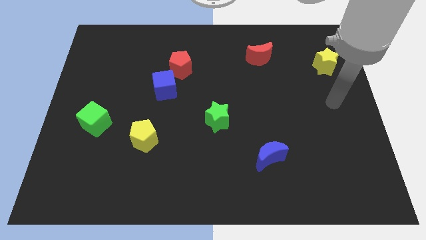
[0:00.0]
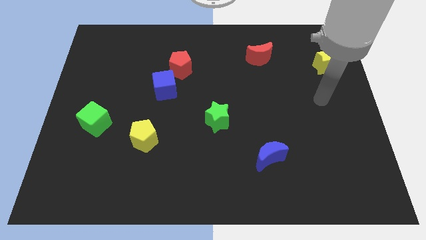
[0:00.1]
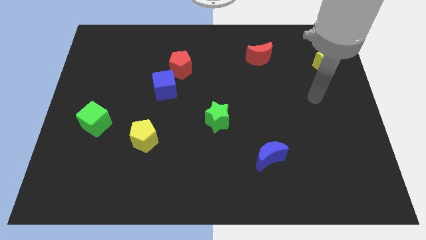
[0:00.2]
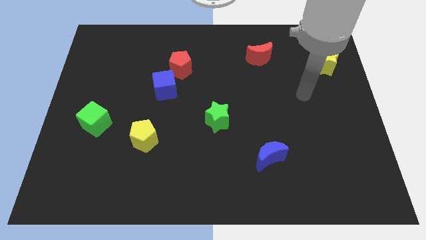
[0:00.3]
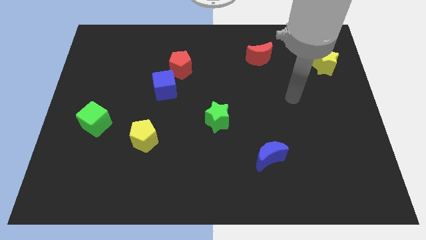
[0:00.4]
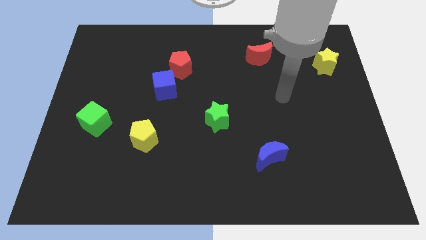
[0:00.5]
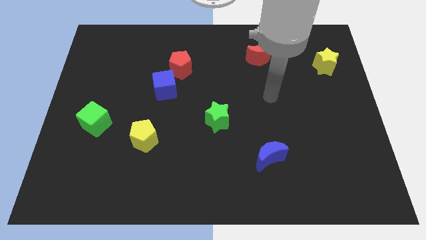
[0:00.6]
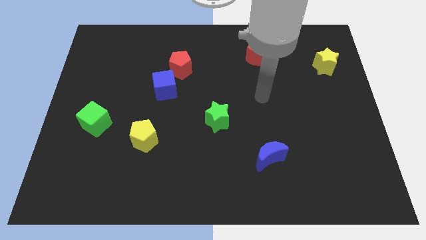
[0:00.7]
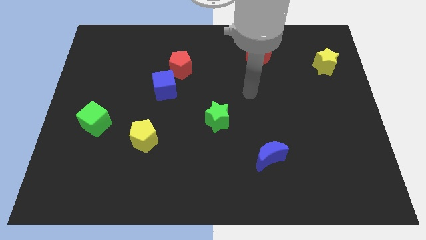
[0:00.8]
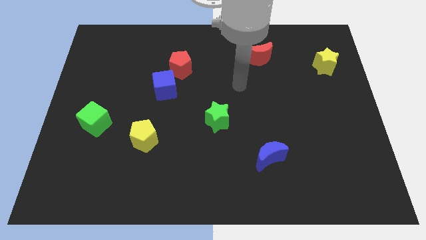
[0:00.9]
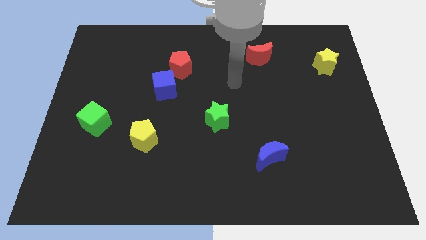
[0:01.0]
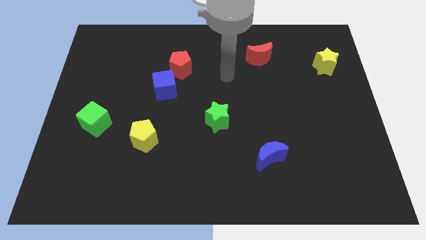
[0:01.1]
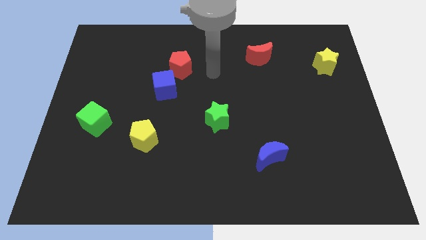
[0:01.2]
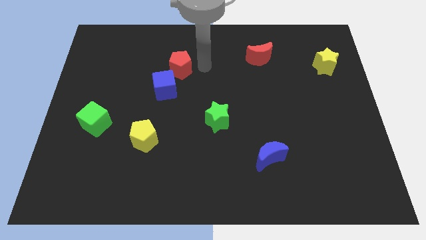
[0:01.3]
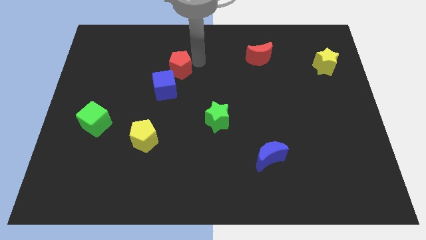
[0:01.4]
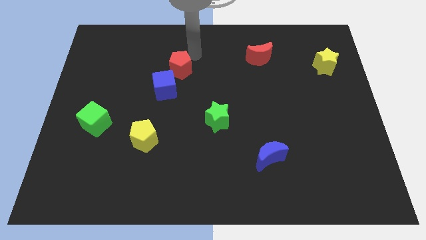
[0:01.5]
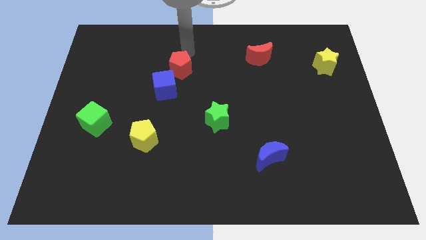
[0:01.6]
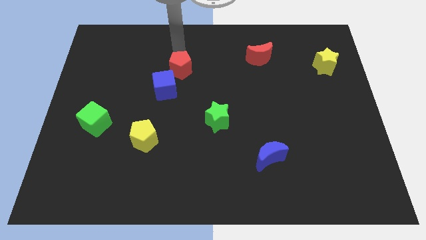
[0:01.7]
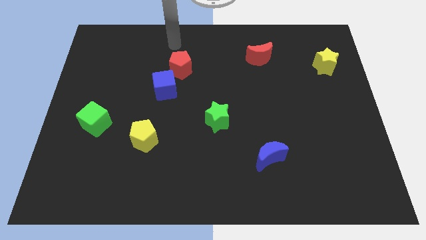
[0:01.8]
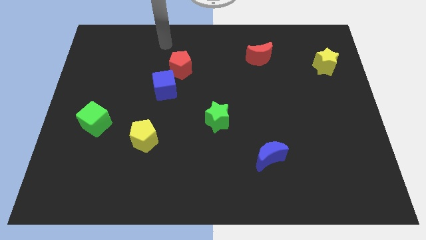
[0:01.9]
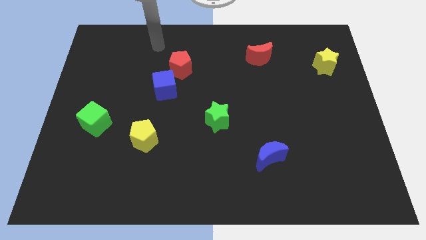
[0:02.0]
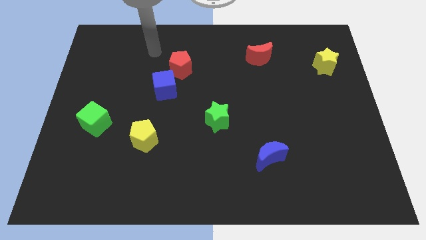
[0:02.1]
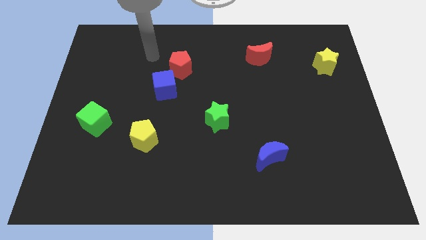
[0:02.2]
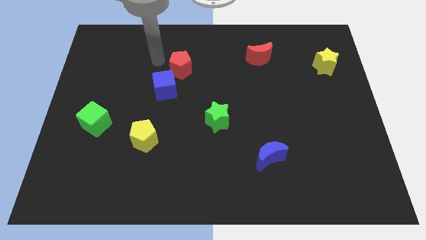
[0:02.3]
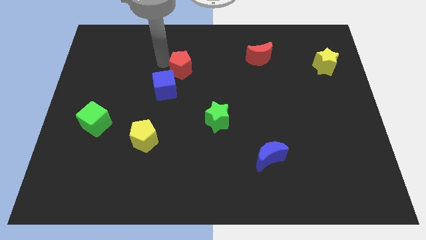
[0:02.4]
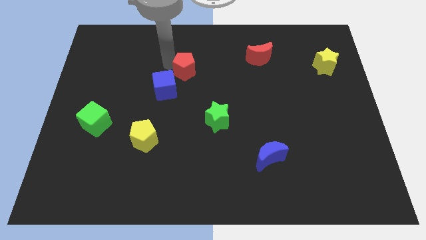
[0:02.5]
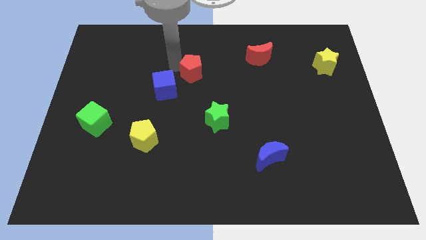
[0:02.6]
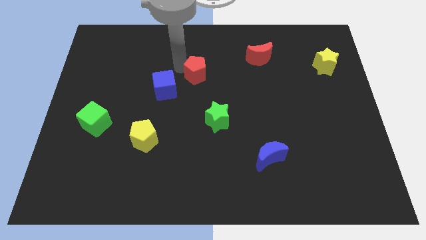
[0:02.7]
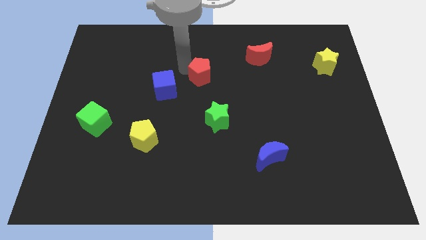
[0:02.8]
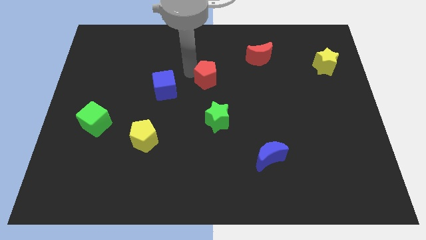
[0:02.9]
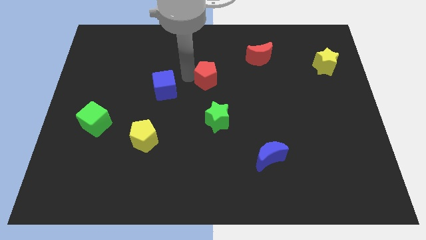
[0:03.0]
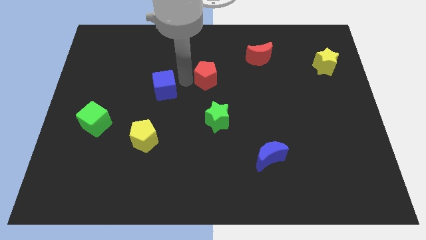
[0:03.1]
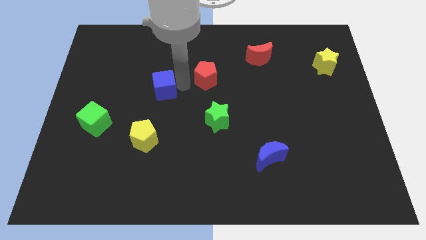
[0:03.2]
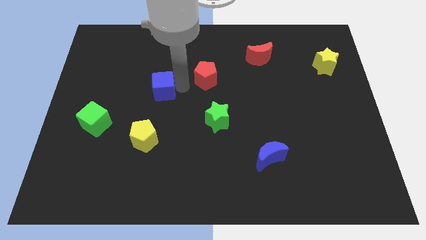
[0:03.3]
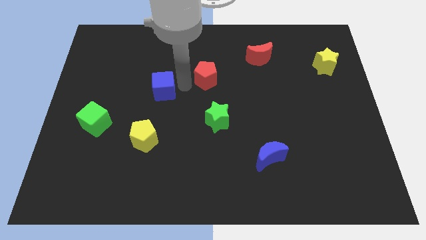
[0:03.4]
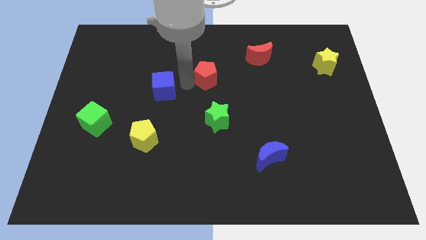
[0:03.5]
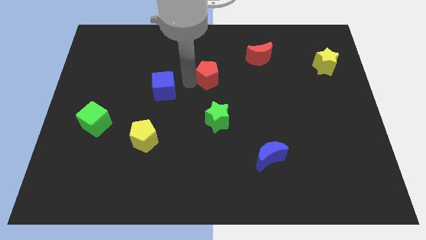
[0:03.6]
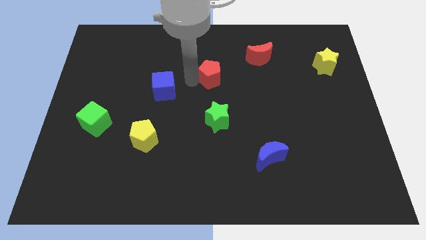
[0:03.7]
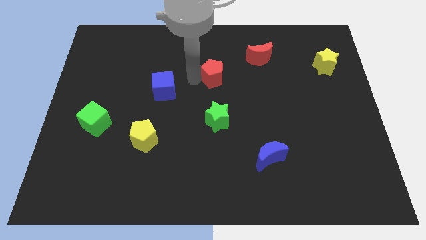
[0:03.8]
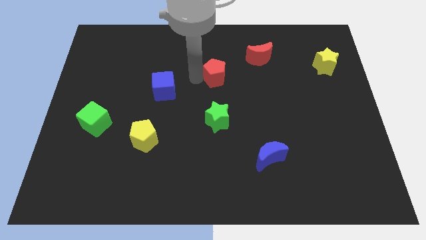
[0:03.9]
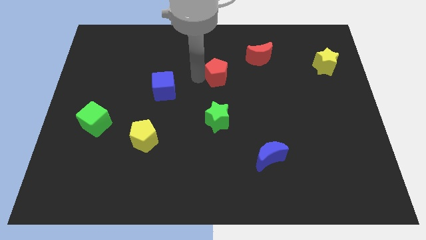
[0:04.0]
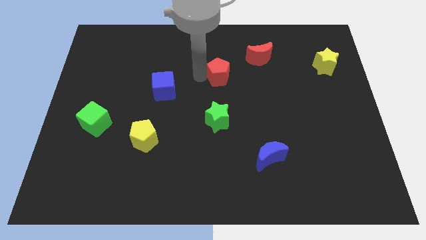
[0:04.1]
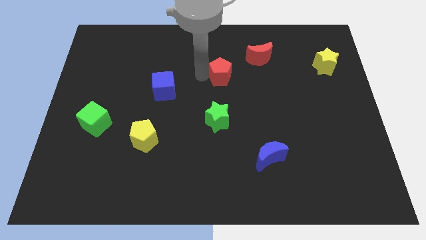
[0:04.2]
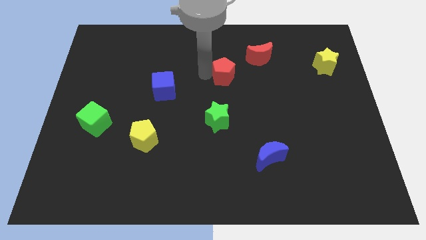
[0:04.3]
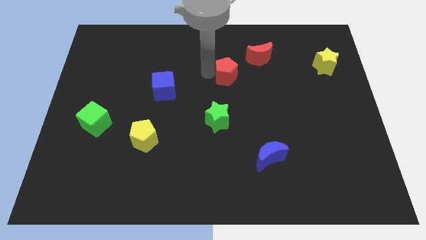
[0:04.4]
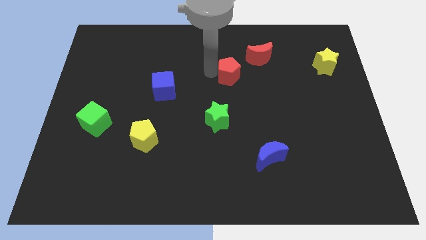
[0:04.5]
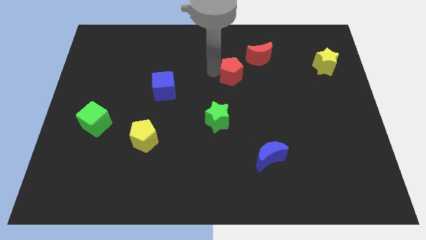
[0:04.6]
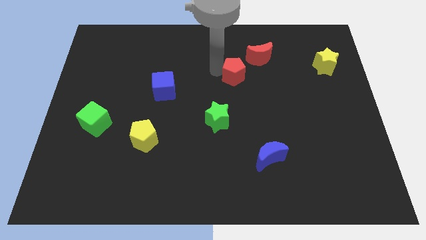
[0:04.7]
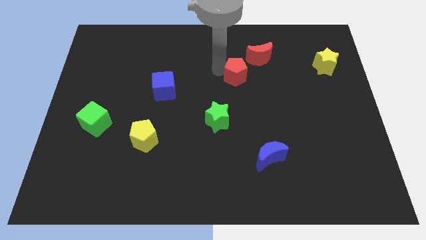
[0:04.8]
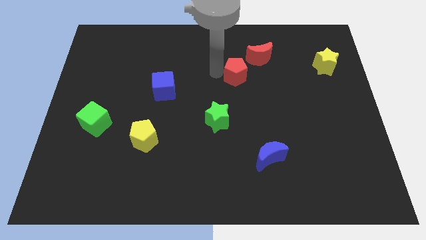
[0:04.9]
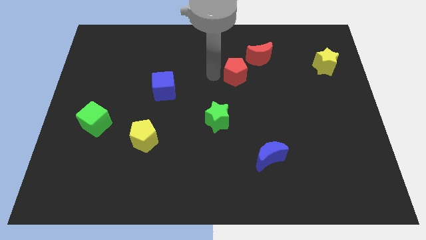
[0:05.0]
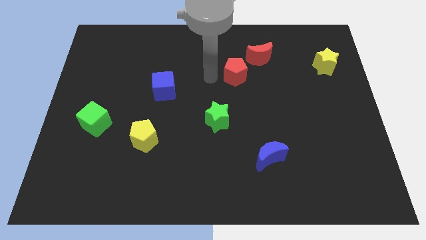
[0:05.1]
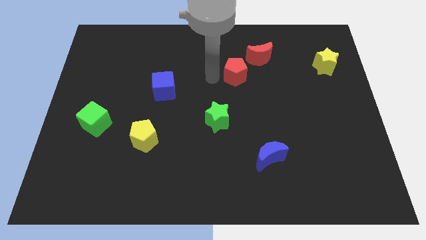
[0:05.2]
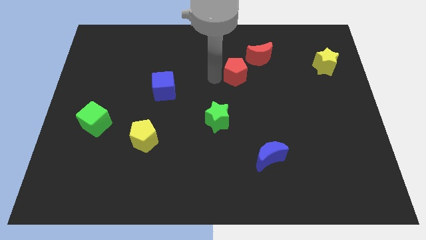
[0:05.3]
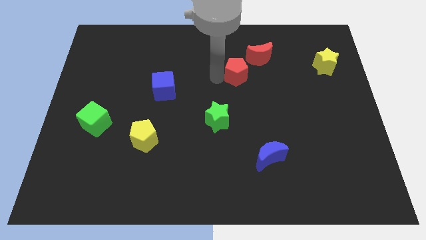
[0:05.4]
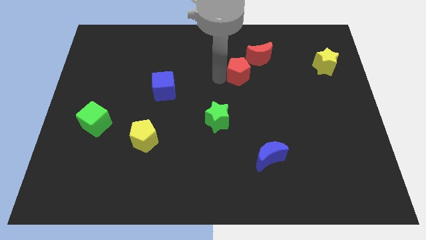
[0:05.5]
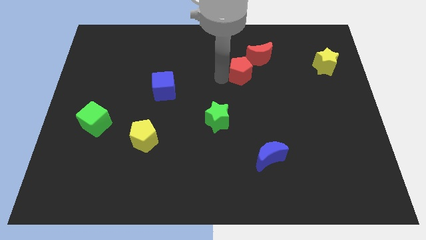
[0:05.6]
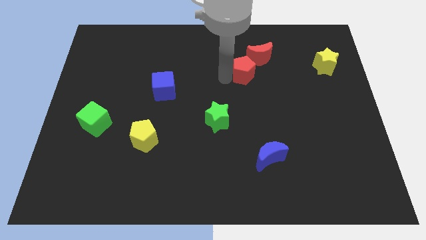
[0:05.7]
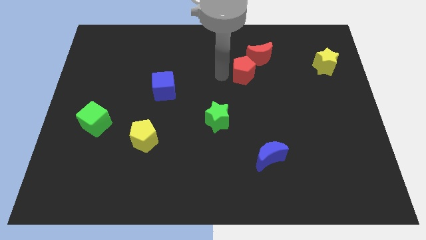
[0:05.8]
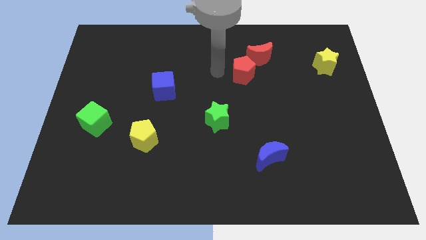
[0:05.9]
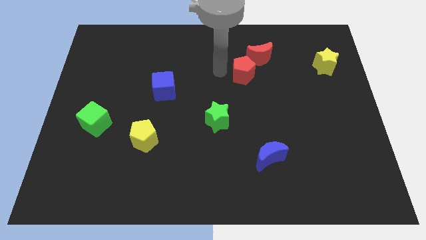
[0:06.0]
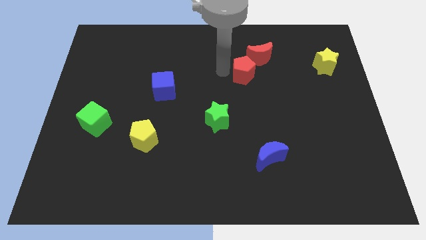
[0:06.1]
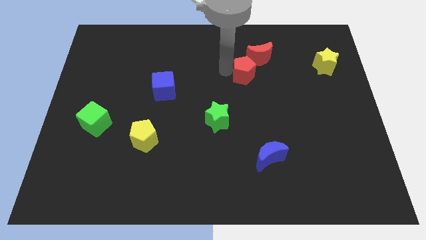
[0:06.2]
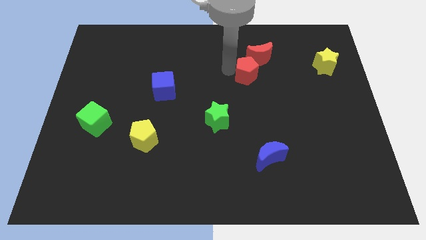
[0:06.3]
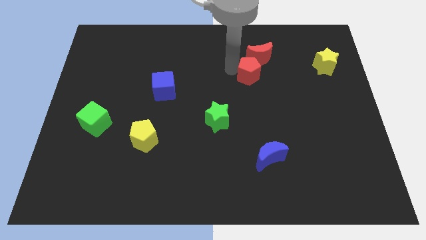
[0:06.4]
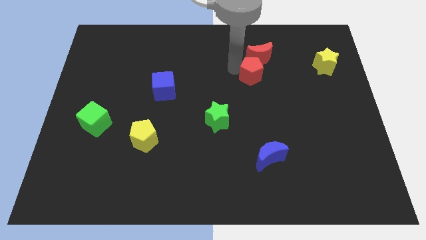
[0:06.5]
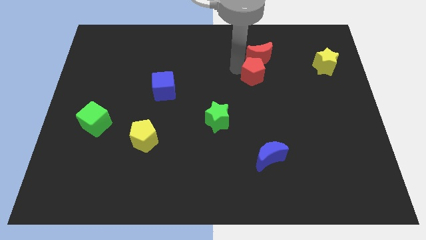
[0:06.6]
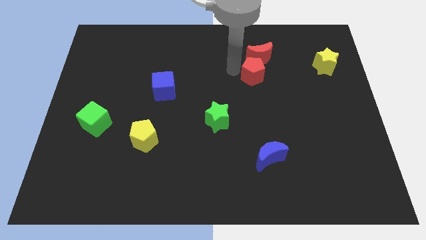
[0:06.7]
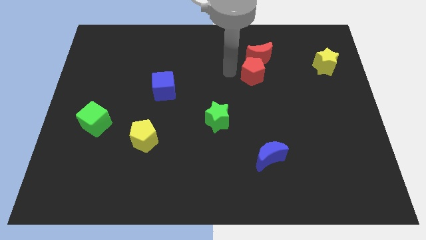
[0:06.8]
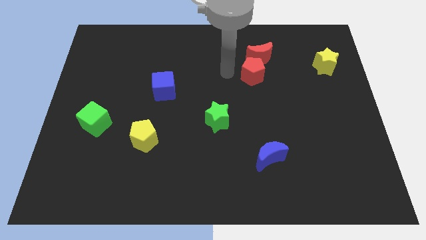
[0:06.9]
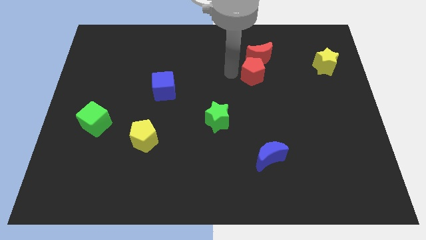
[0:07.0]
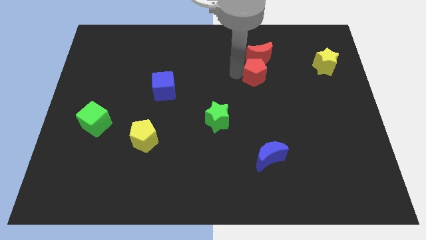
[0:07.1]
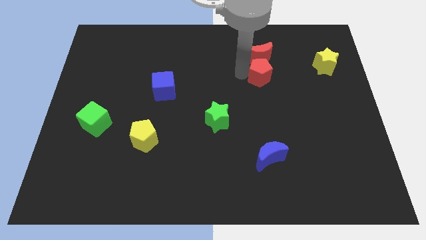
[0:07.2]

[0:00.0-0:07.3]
slide the red pentagon right

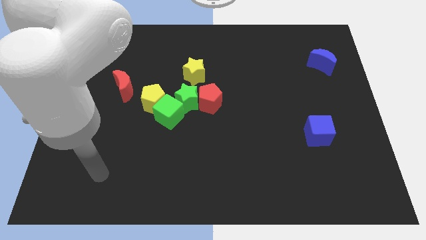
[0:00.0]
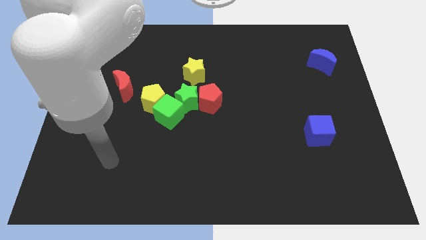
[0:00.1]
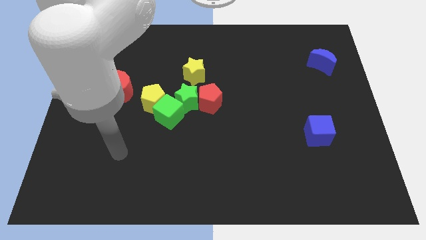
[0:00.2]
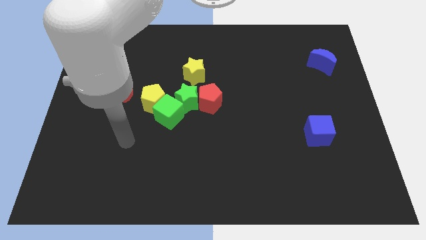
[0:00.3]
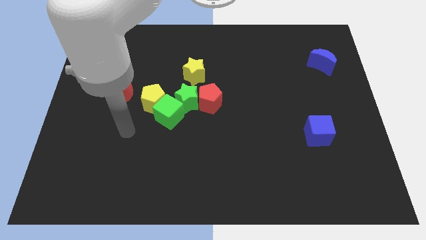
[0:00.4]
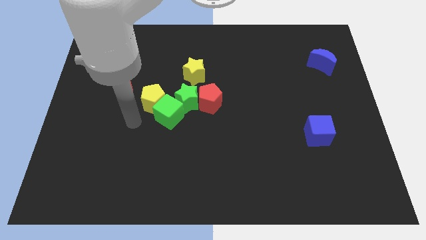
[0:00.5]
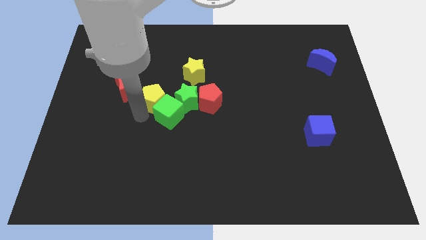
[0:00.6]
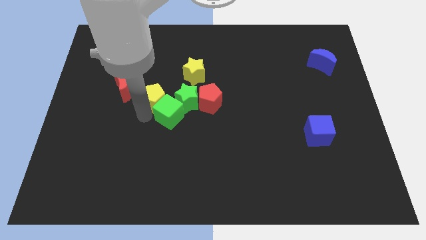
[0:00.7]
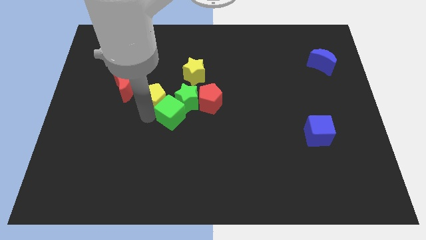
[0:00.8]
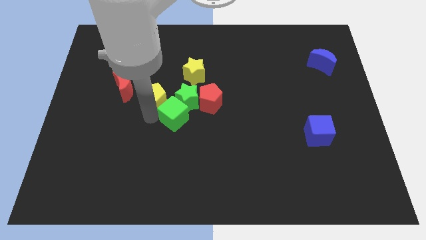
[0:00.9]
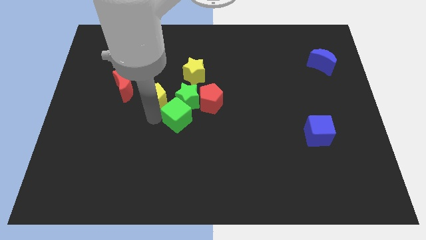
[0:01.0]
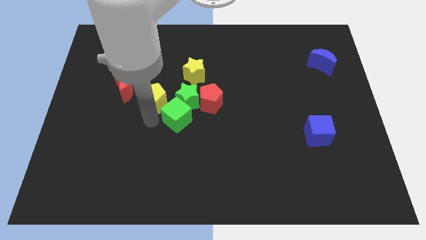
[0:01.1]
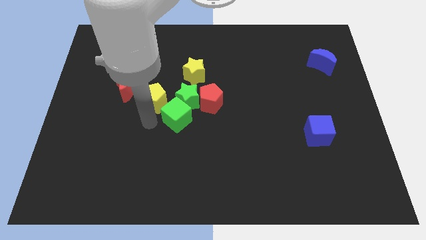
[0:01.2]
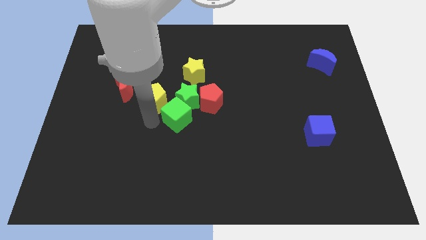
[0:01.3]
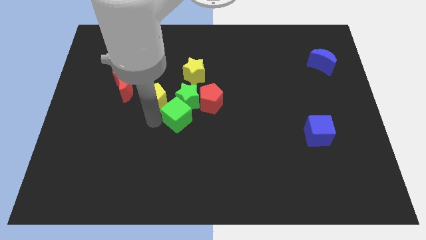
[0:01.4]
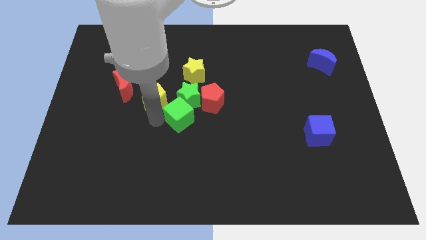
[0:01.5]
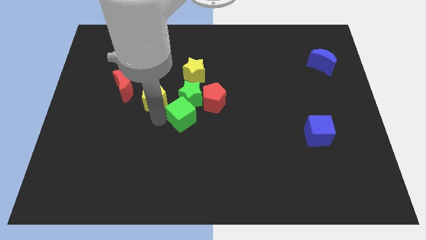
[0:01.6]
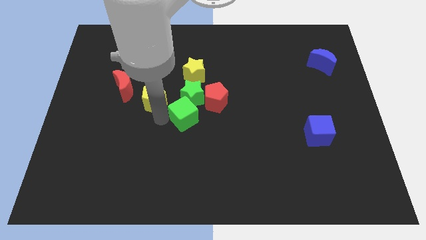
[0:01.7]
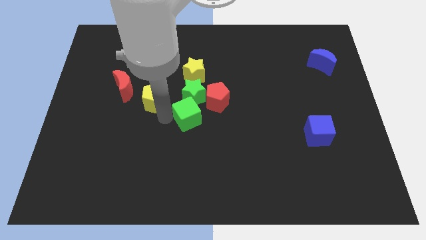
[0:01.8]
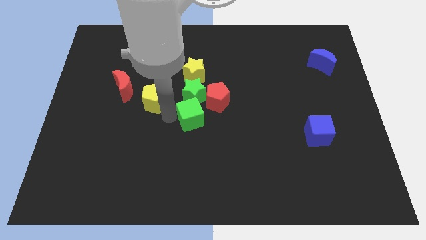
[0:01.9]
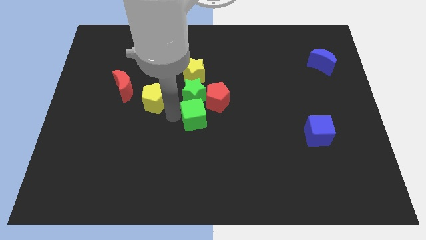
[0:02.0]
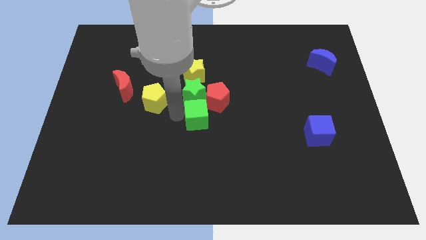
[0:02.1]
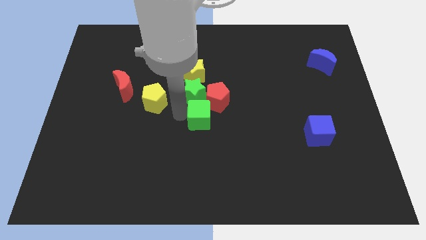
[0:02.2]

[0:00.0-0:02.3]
slightly move the green cube right
